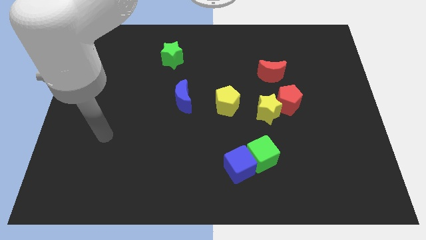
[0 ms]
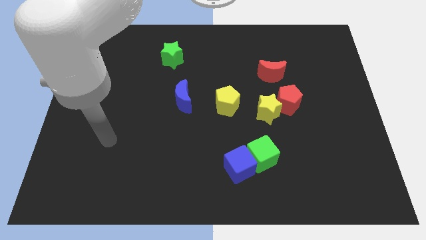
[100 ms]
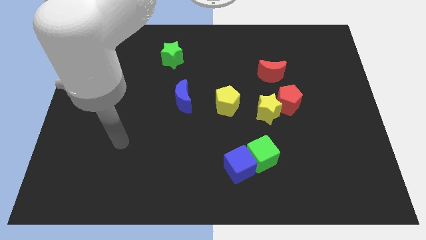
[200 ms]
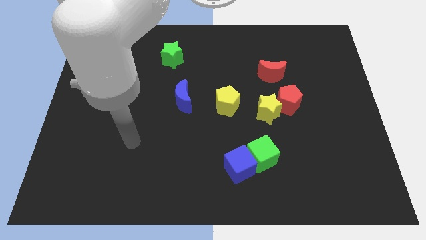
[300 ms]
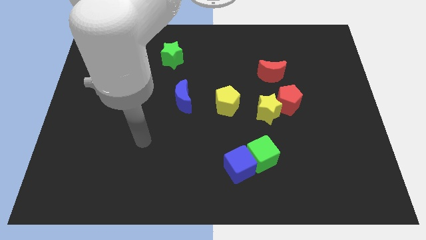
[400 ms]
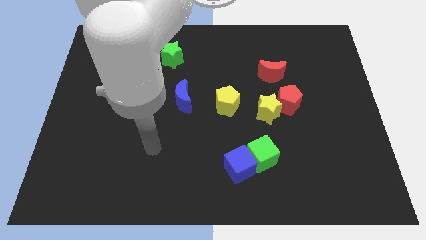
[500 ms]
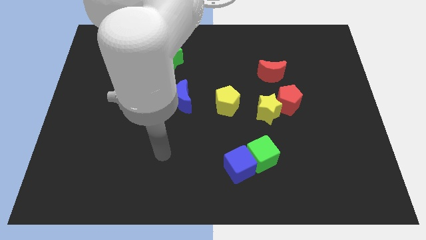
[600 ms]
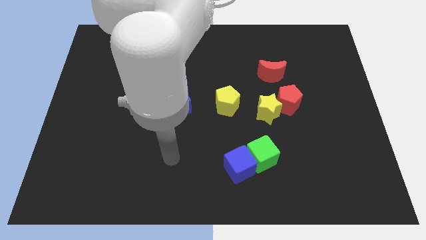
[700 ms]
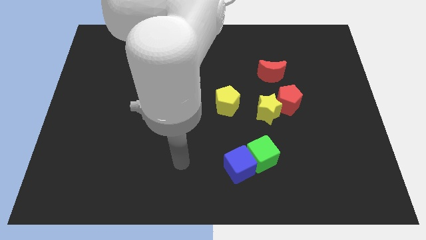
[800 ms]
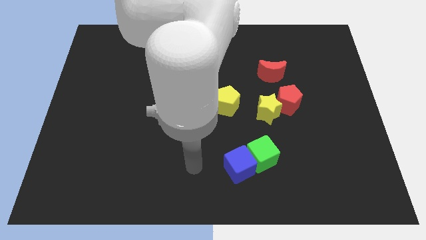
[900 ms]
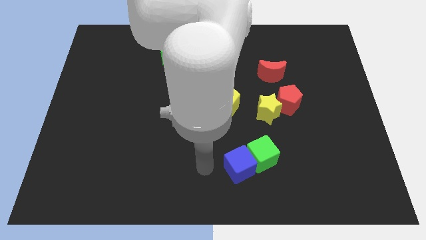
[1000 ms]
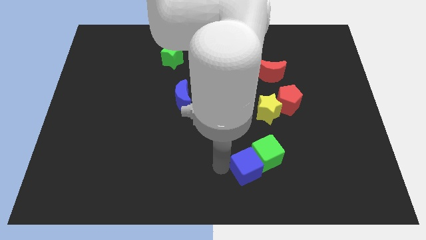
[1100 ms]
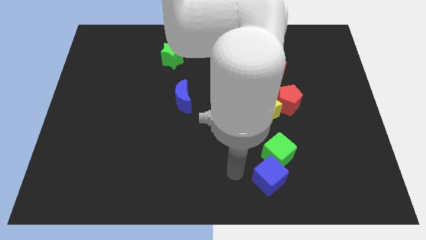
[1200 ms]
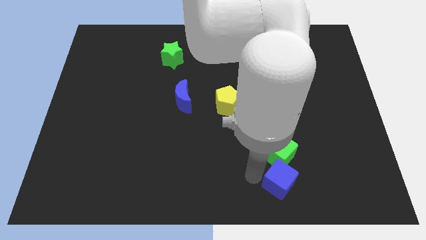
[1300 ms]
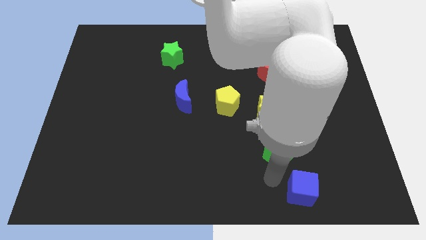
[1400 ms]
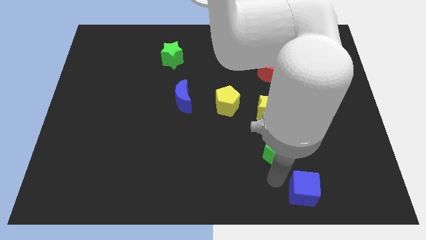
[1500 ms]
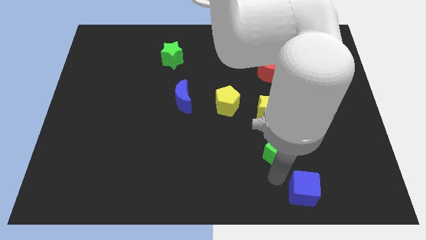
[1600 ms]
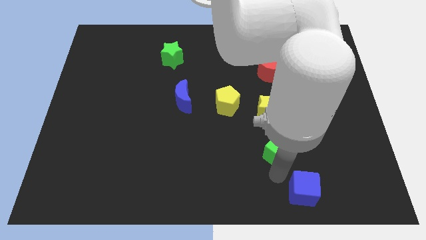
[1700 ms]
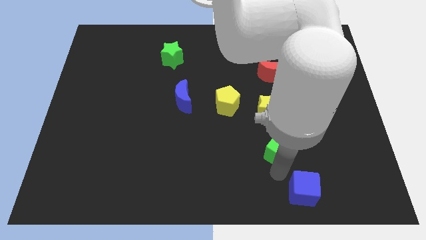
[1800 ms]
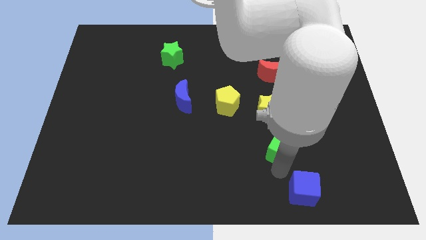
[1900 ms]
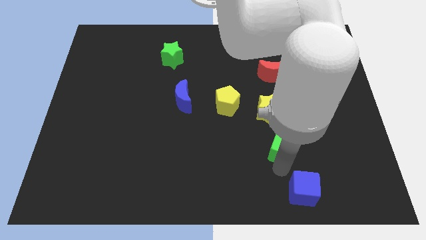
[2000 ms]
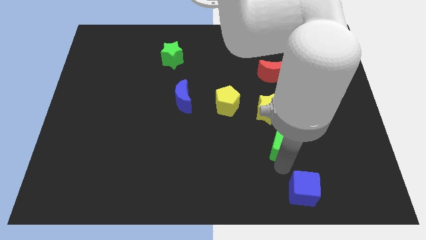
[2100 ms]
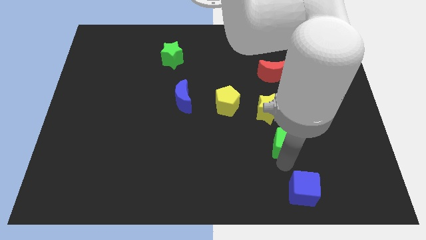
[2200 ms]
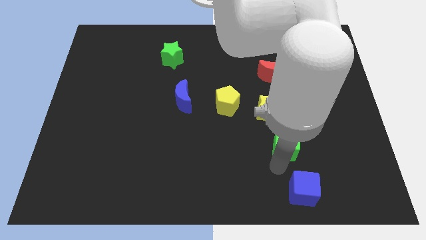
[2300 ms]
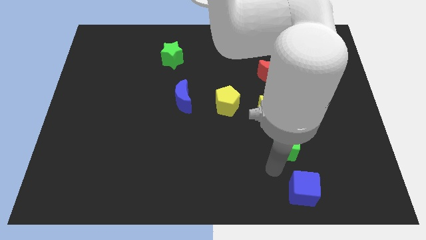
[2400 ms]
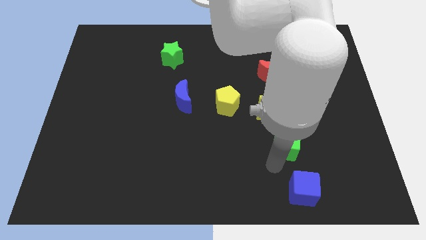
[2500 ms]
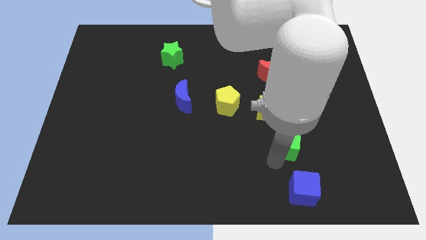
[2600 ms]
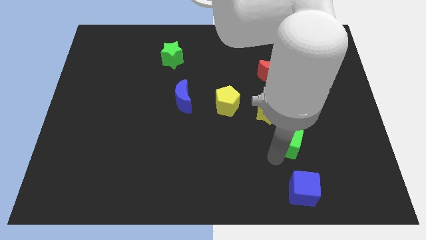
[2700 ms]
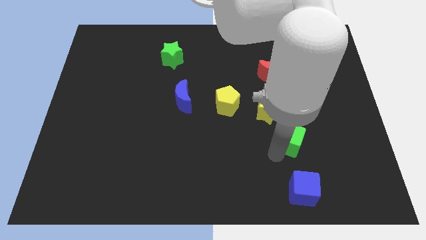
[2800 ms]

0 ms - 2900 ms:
slightly push the green cube upwards and to the right diagonally

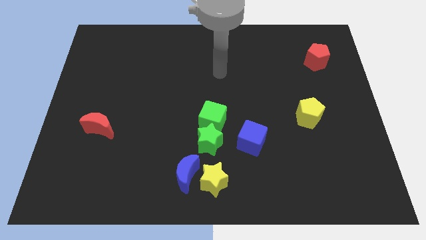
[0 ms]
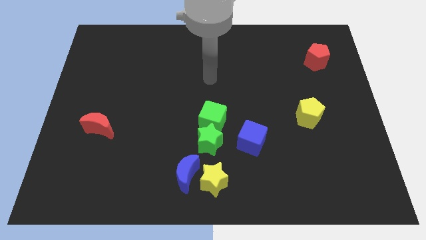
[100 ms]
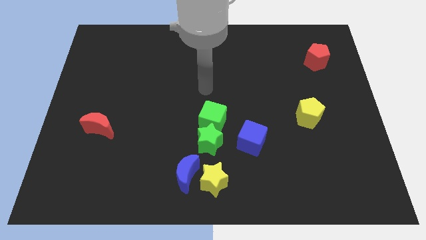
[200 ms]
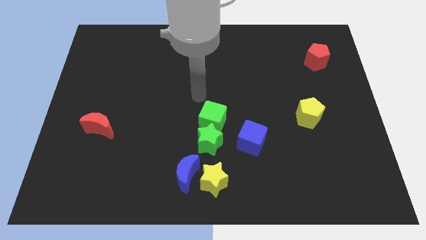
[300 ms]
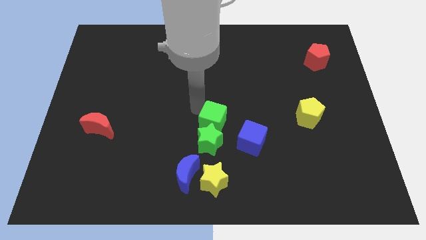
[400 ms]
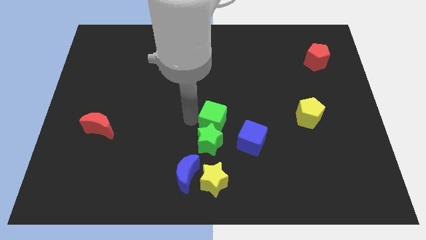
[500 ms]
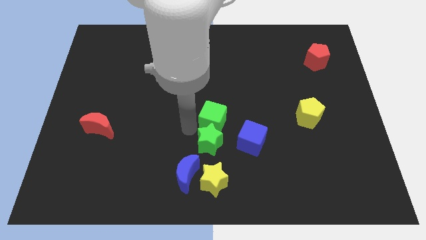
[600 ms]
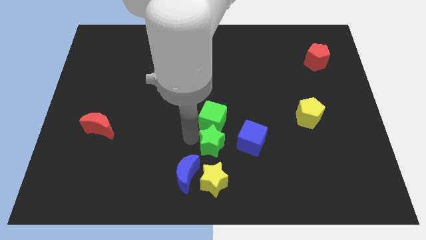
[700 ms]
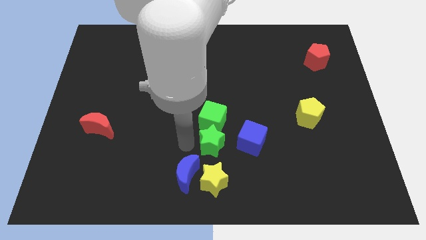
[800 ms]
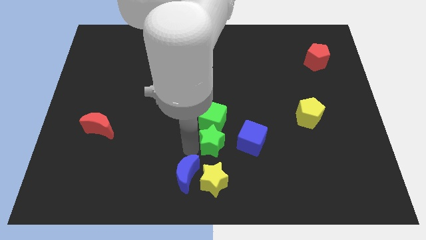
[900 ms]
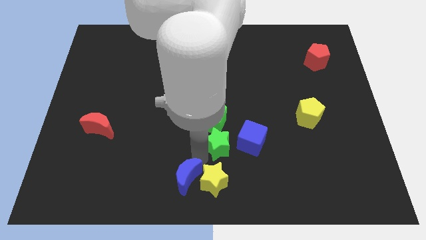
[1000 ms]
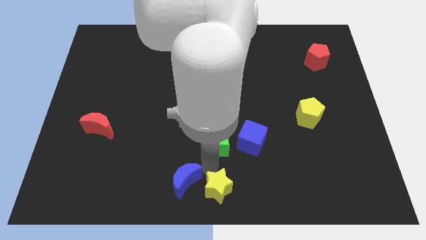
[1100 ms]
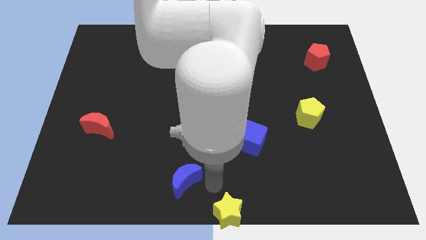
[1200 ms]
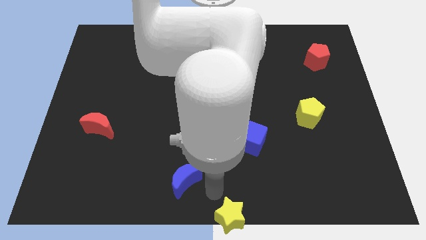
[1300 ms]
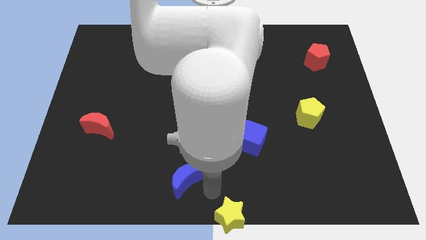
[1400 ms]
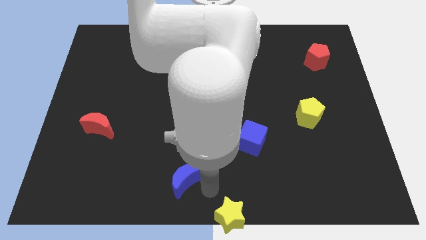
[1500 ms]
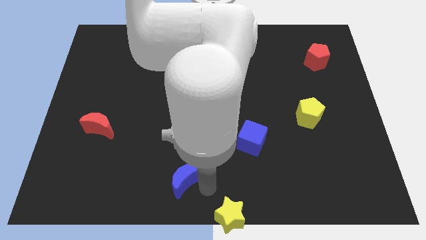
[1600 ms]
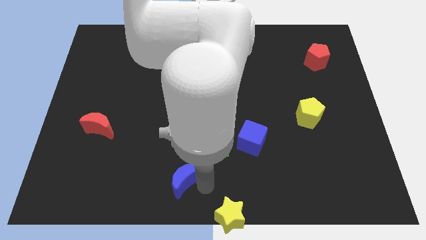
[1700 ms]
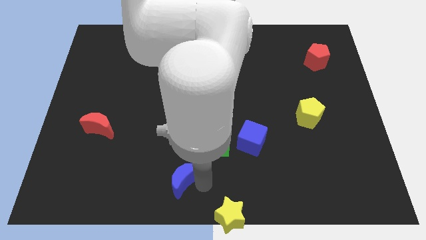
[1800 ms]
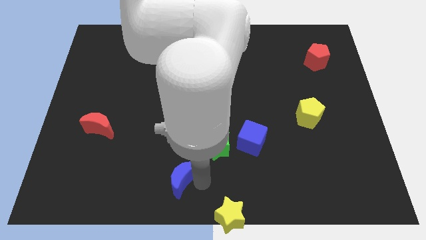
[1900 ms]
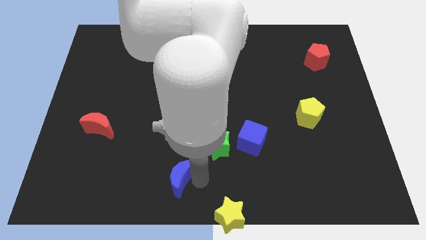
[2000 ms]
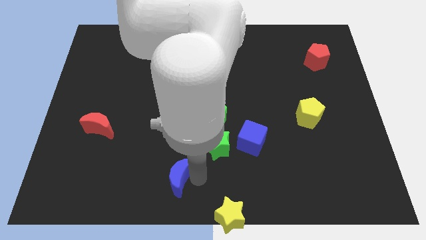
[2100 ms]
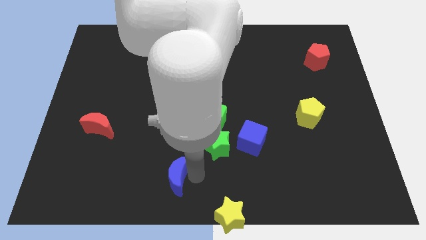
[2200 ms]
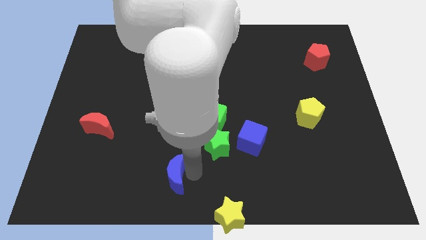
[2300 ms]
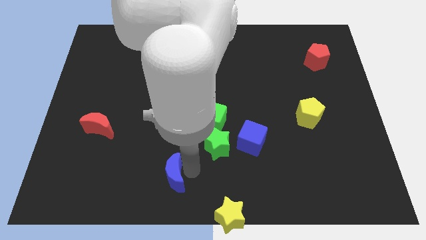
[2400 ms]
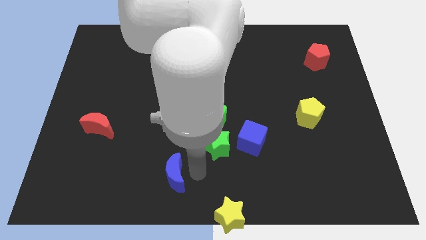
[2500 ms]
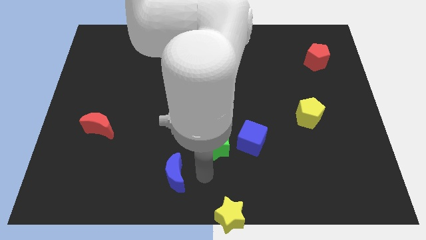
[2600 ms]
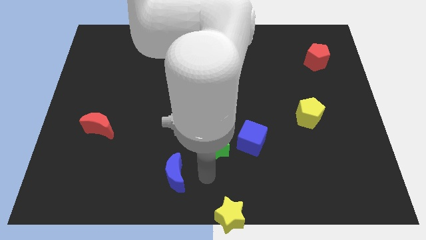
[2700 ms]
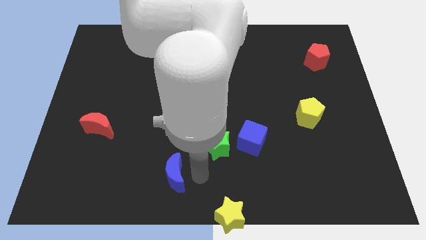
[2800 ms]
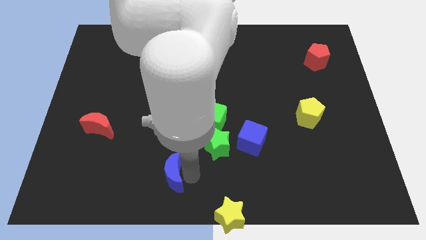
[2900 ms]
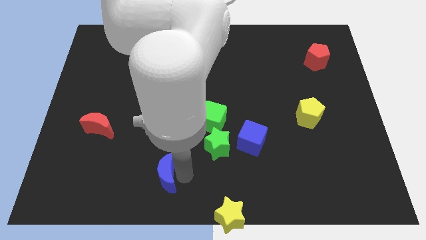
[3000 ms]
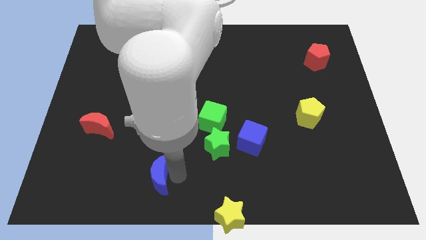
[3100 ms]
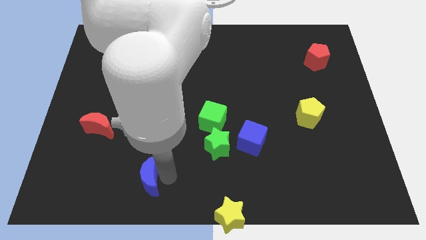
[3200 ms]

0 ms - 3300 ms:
move the blue moon somewhat to the left

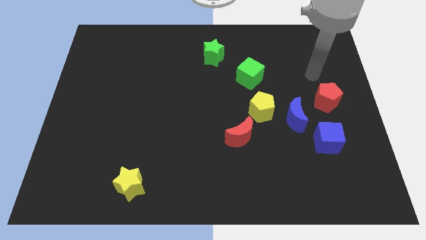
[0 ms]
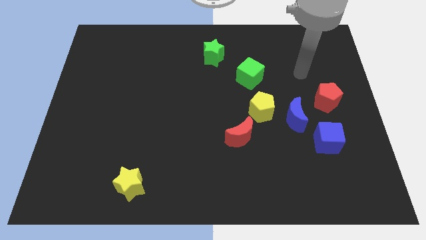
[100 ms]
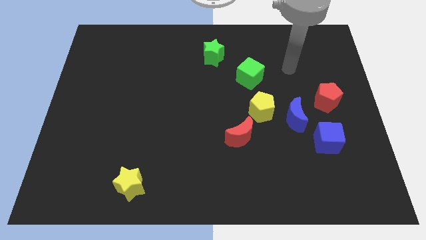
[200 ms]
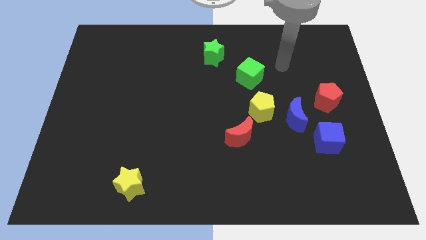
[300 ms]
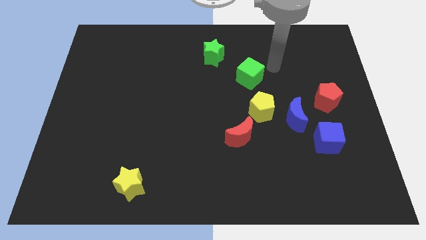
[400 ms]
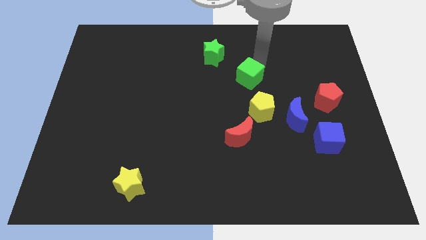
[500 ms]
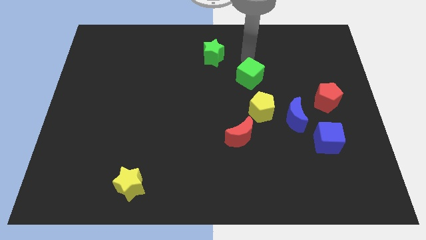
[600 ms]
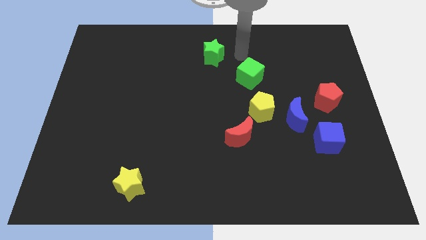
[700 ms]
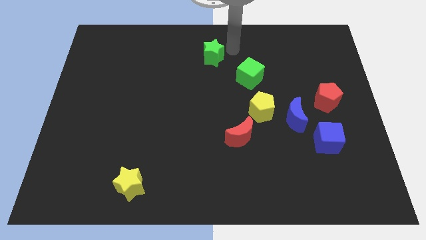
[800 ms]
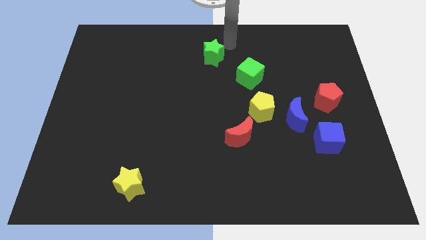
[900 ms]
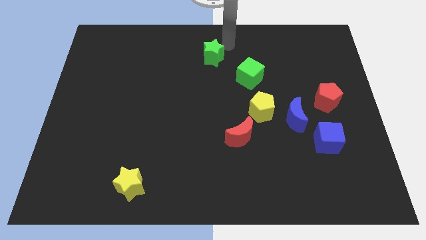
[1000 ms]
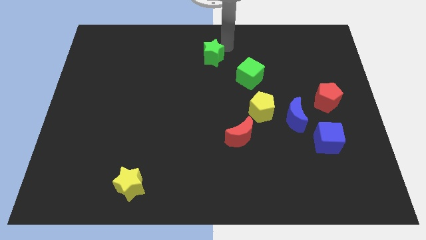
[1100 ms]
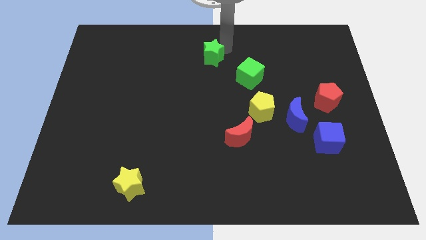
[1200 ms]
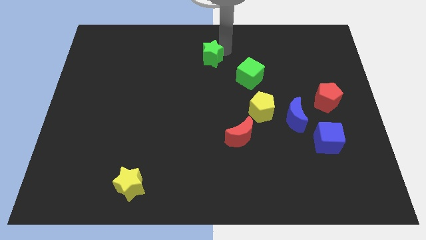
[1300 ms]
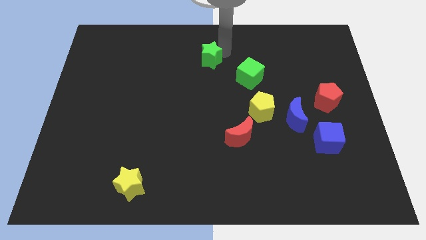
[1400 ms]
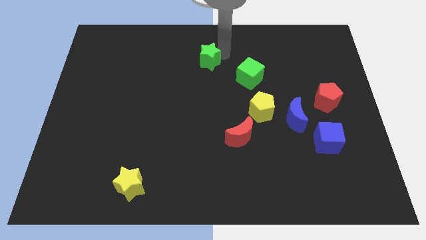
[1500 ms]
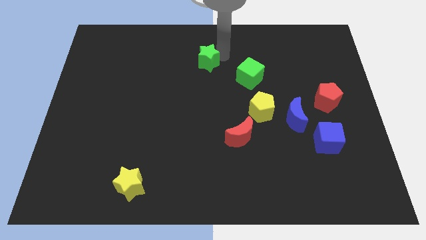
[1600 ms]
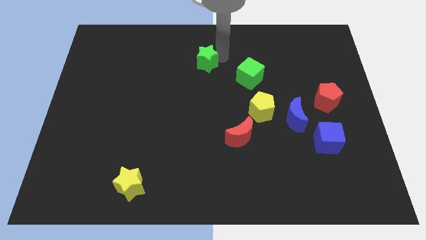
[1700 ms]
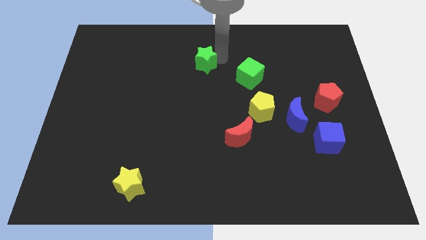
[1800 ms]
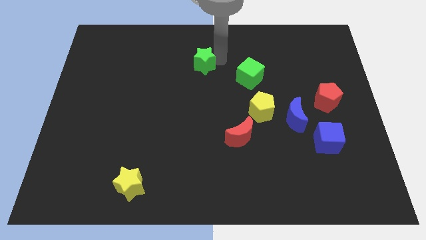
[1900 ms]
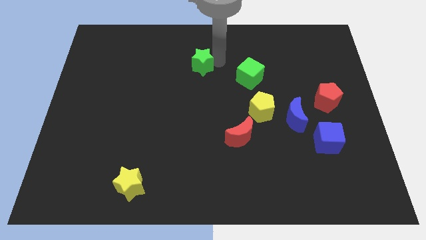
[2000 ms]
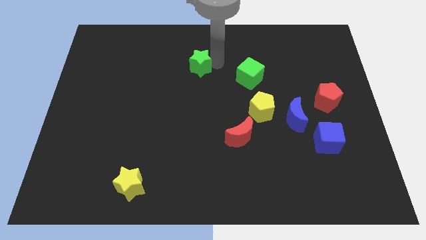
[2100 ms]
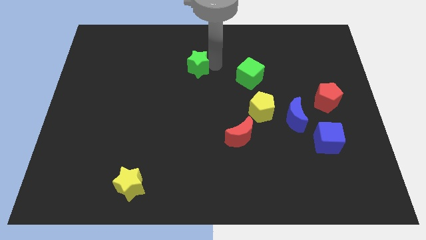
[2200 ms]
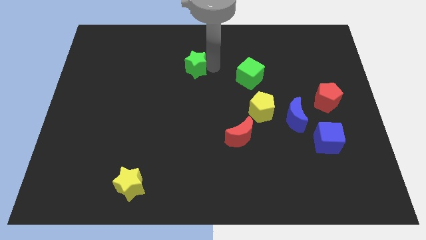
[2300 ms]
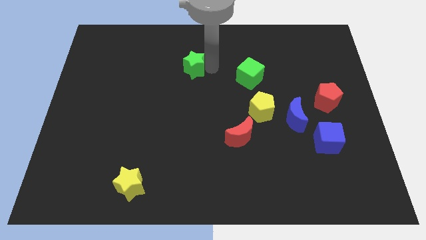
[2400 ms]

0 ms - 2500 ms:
slightly push the green star down and left
